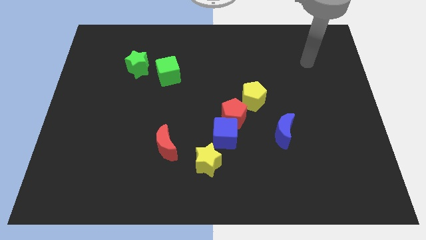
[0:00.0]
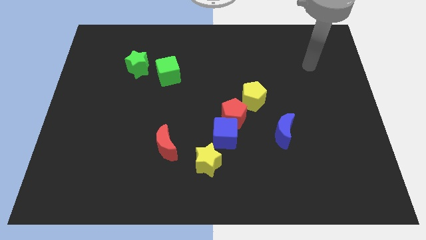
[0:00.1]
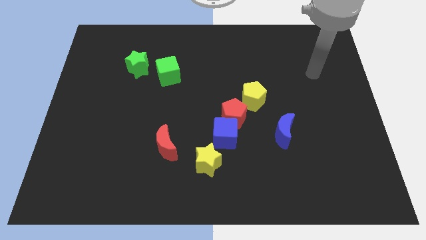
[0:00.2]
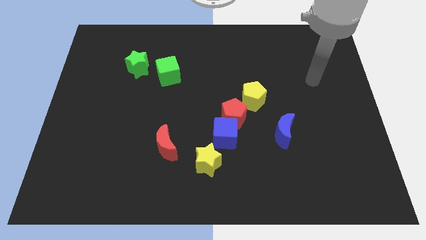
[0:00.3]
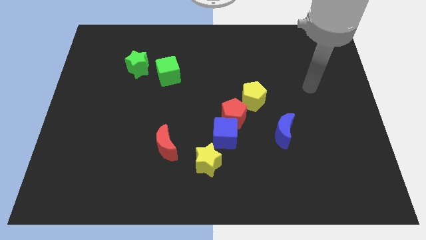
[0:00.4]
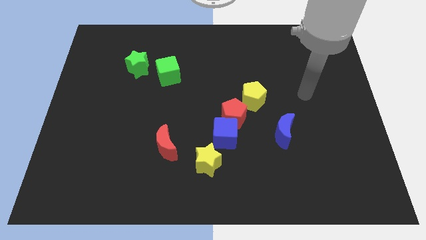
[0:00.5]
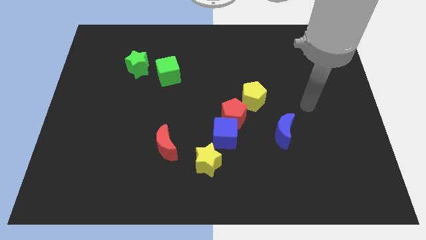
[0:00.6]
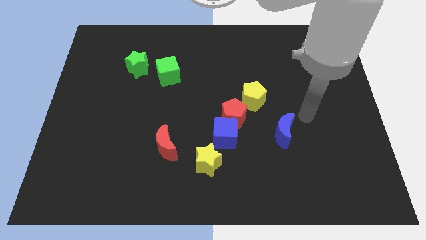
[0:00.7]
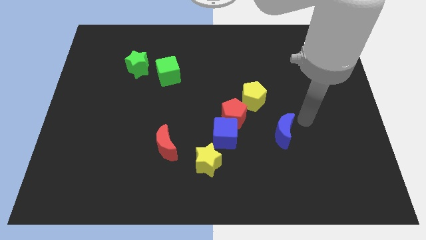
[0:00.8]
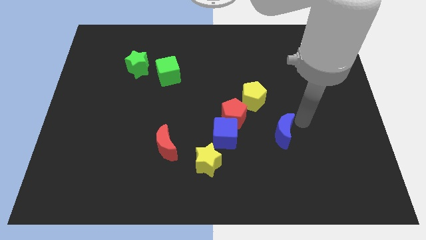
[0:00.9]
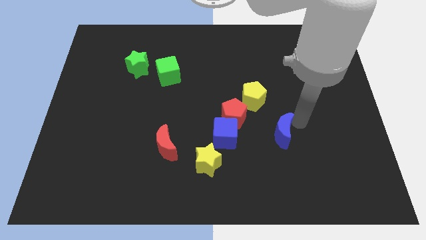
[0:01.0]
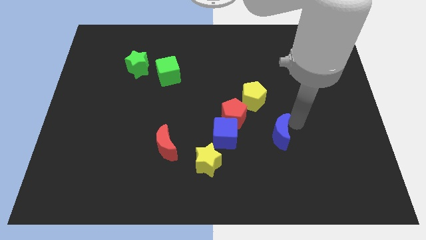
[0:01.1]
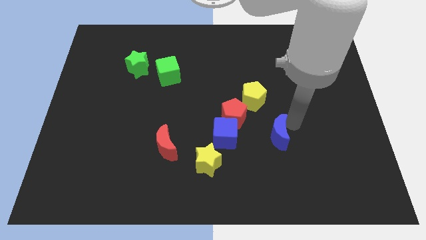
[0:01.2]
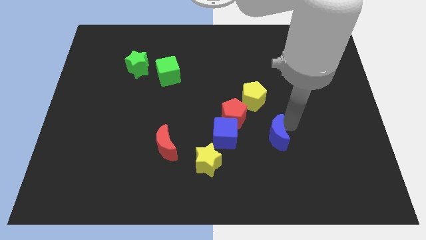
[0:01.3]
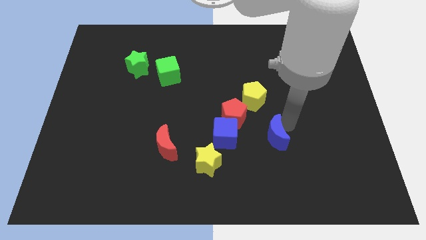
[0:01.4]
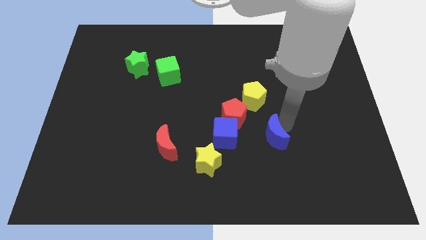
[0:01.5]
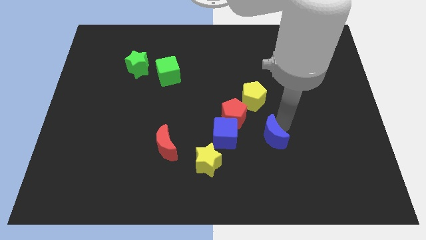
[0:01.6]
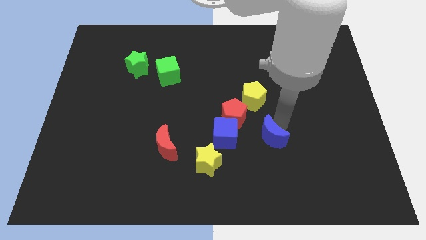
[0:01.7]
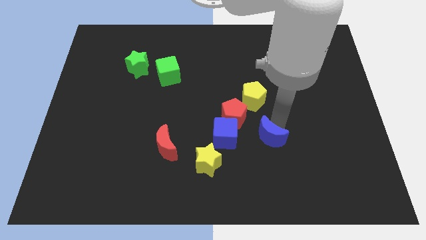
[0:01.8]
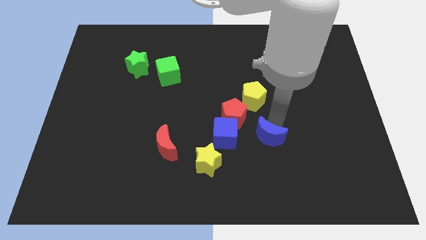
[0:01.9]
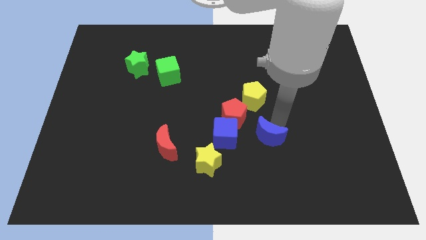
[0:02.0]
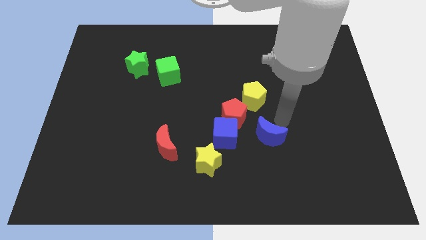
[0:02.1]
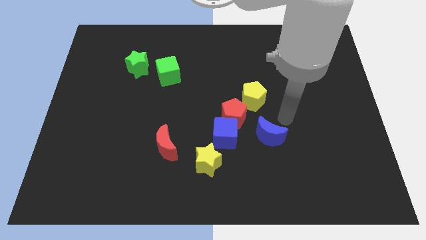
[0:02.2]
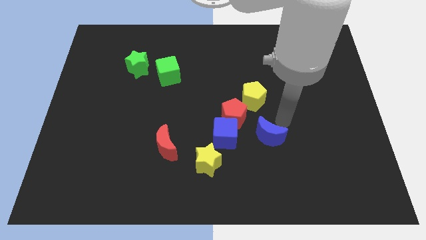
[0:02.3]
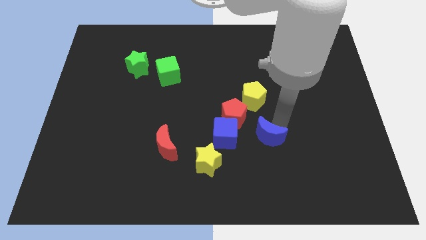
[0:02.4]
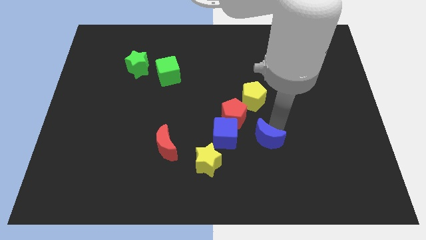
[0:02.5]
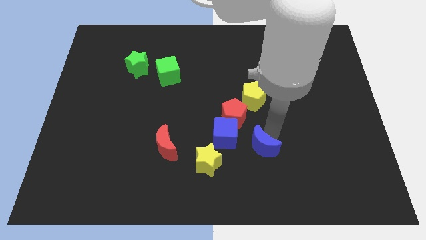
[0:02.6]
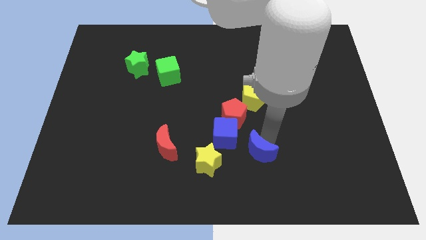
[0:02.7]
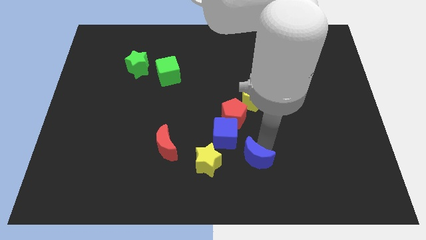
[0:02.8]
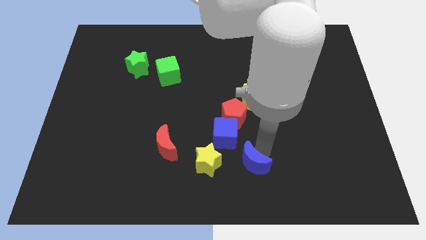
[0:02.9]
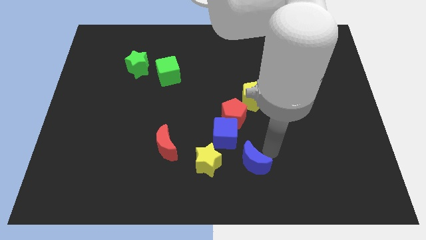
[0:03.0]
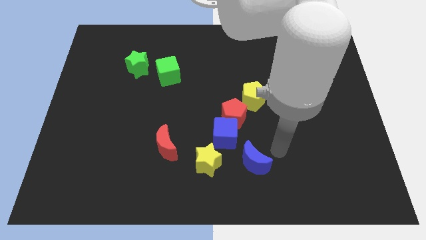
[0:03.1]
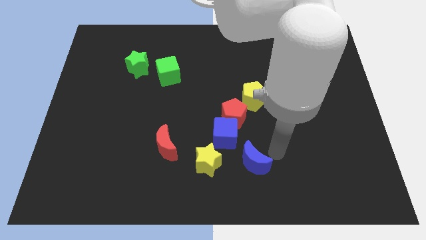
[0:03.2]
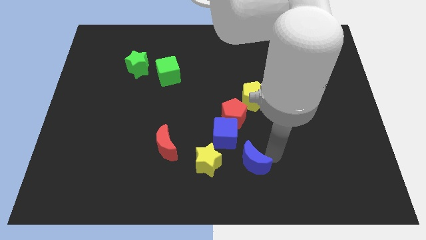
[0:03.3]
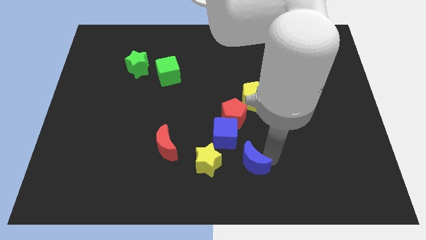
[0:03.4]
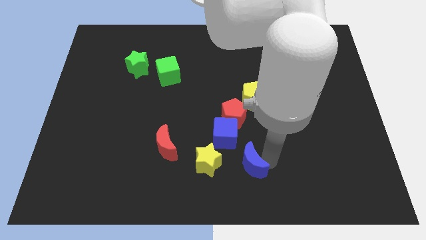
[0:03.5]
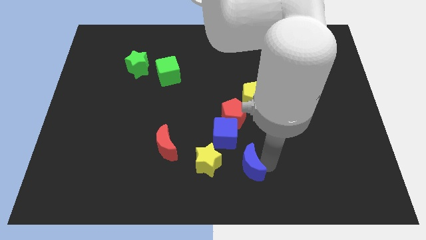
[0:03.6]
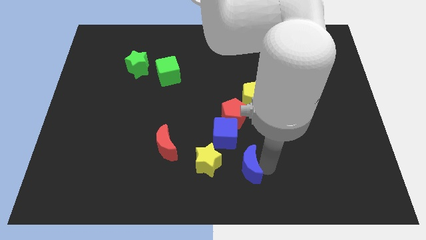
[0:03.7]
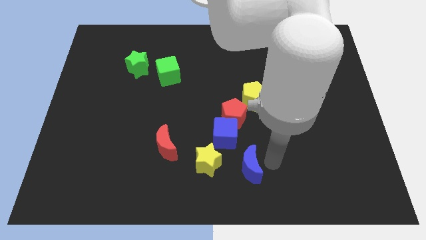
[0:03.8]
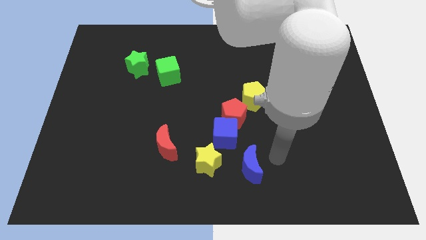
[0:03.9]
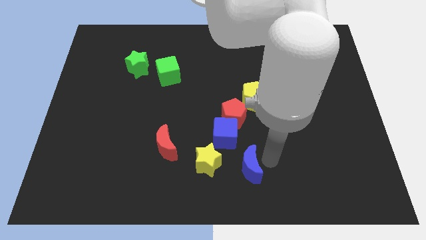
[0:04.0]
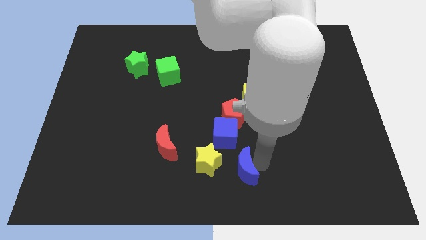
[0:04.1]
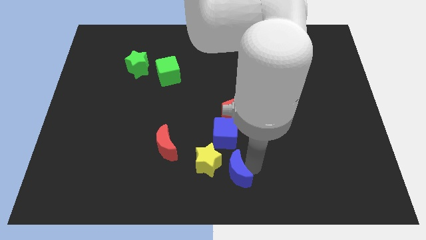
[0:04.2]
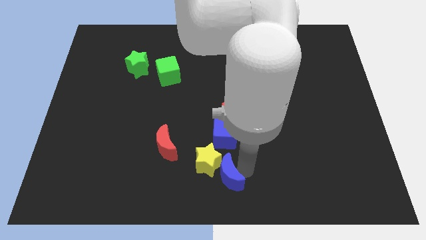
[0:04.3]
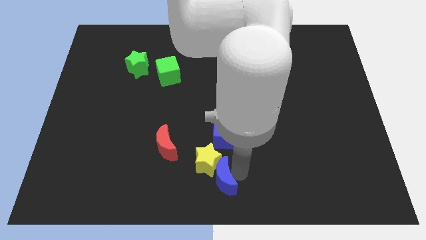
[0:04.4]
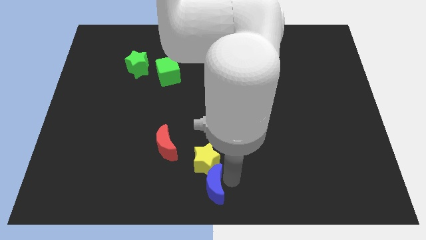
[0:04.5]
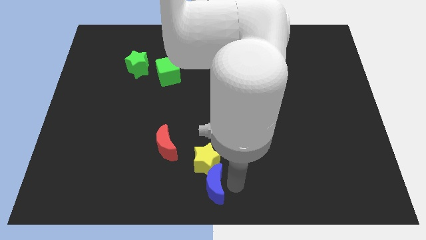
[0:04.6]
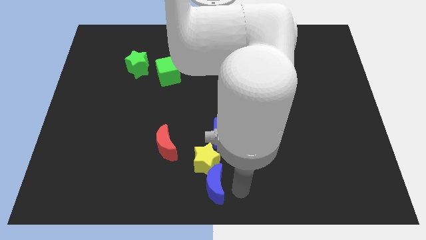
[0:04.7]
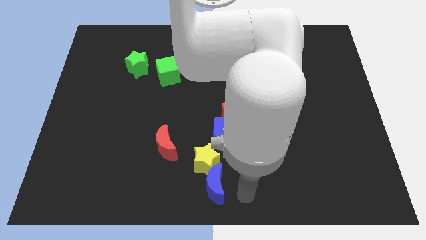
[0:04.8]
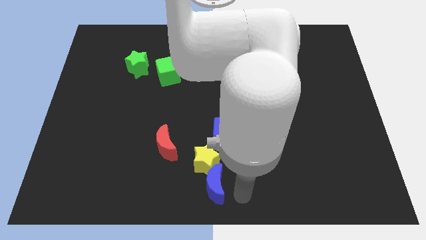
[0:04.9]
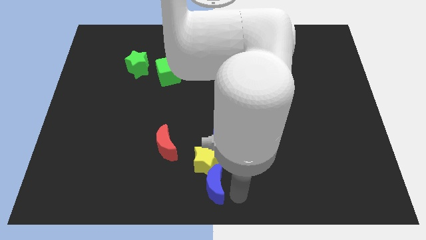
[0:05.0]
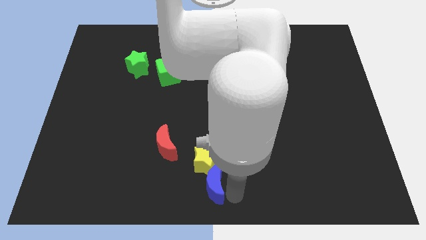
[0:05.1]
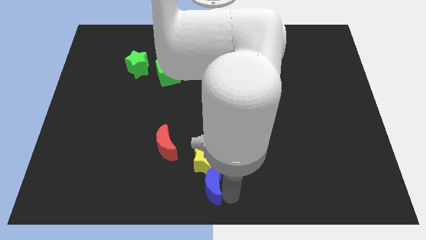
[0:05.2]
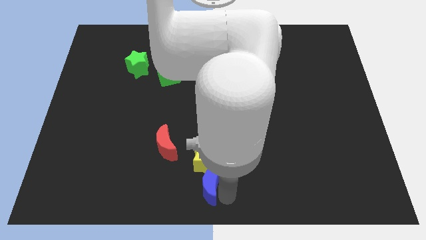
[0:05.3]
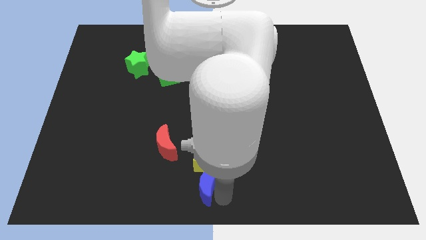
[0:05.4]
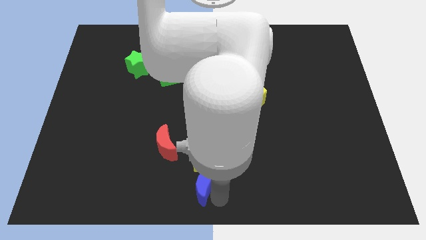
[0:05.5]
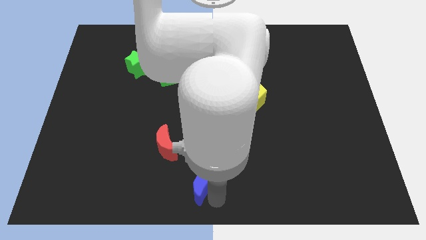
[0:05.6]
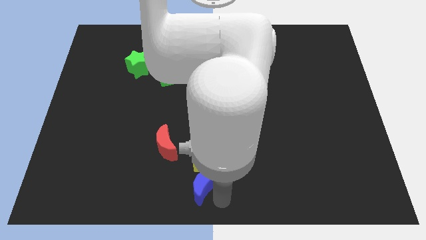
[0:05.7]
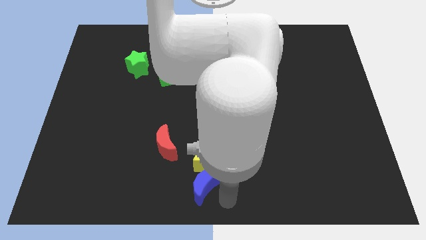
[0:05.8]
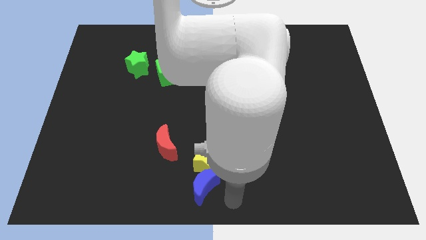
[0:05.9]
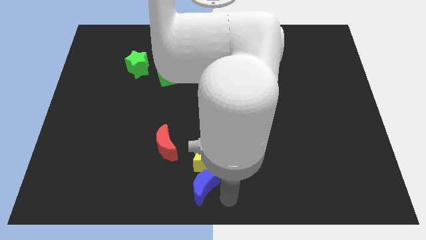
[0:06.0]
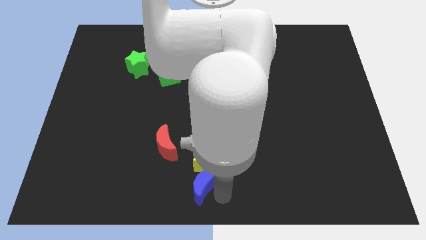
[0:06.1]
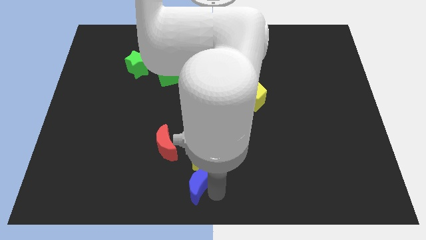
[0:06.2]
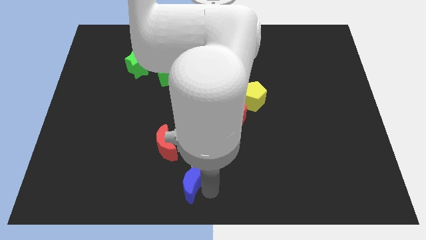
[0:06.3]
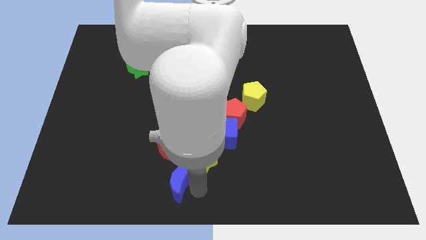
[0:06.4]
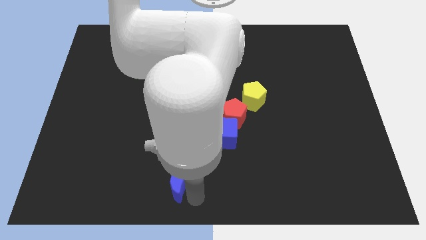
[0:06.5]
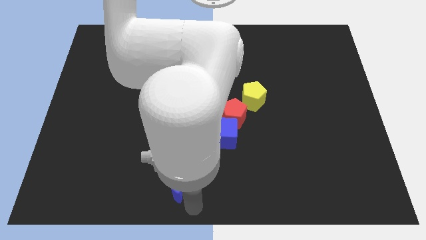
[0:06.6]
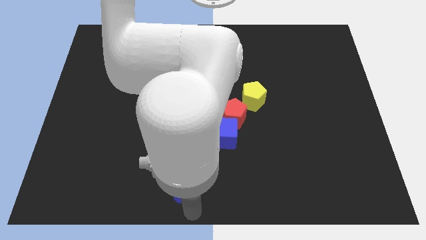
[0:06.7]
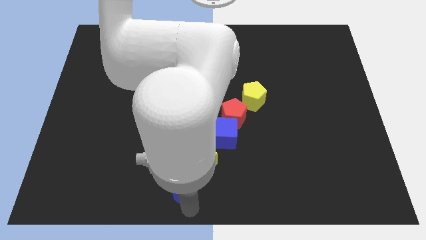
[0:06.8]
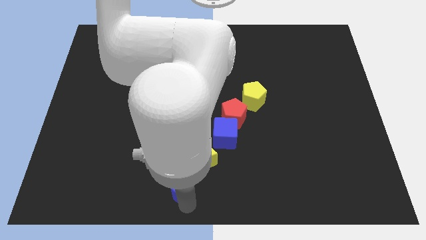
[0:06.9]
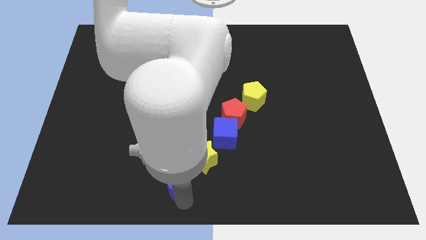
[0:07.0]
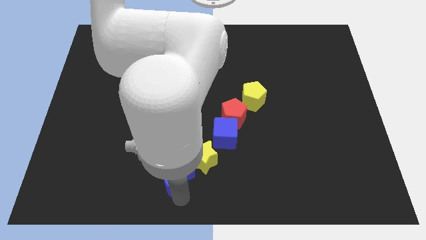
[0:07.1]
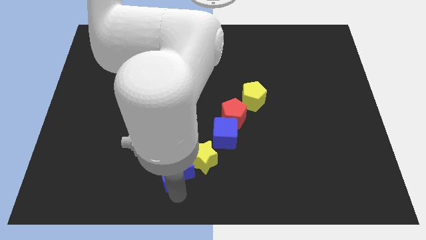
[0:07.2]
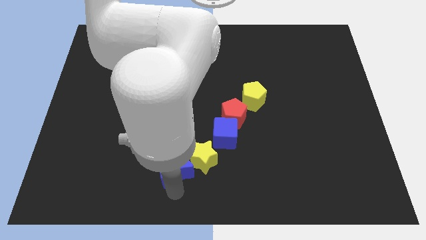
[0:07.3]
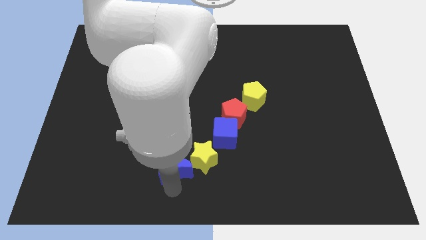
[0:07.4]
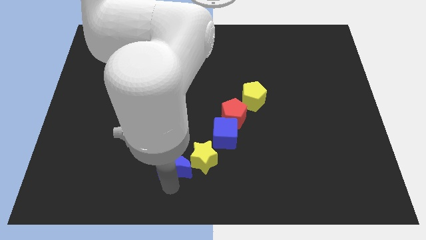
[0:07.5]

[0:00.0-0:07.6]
push the blue moon next to the red moon
